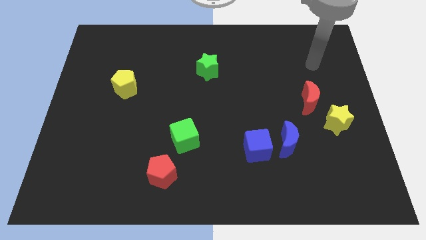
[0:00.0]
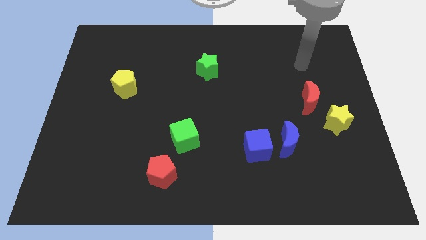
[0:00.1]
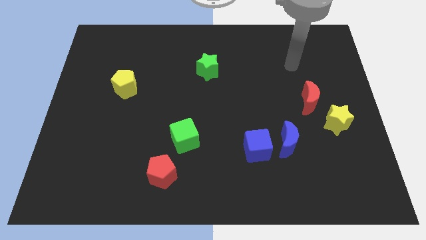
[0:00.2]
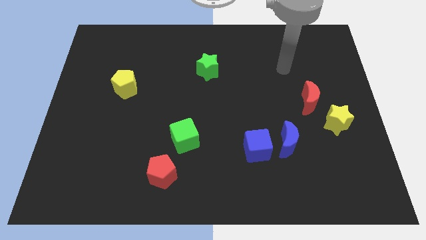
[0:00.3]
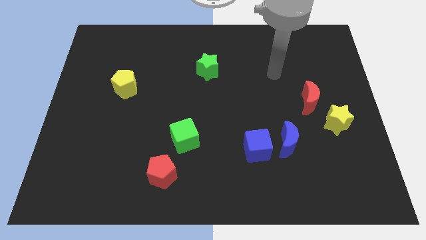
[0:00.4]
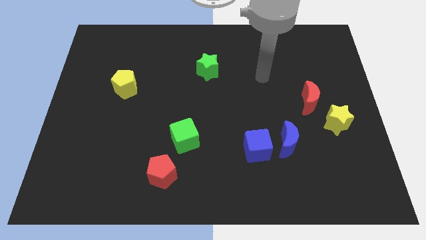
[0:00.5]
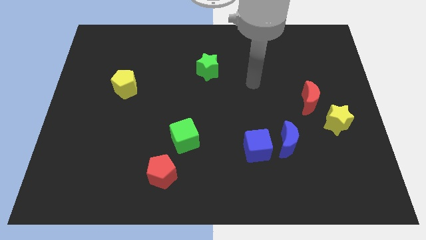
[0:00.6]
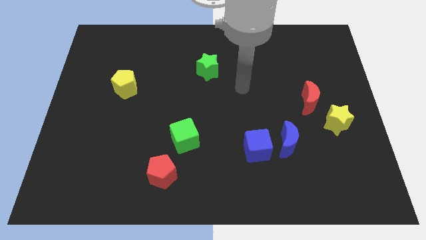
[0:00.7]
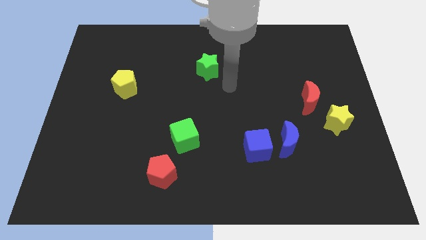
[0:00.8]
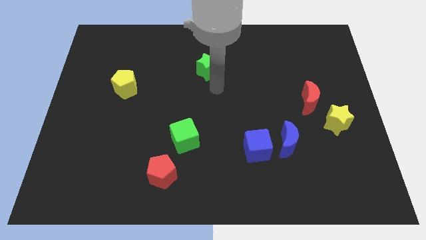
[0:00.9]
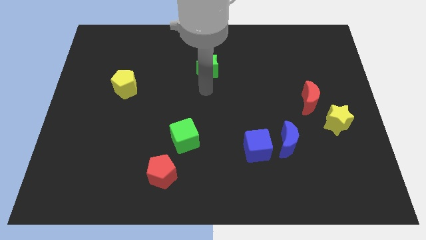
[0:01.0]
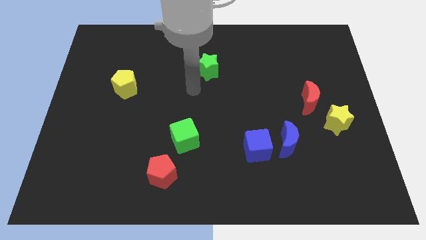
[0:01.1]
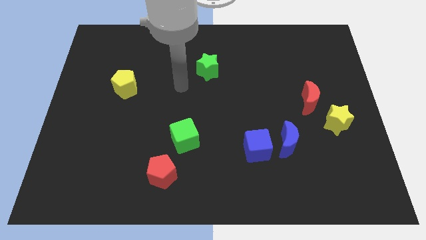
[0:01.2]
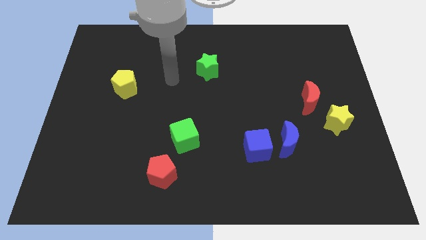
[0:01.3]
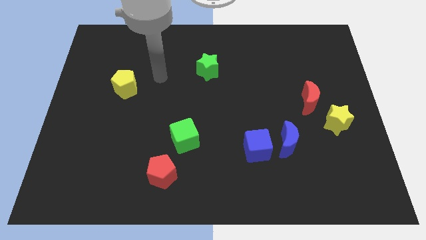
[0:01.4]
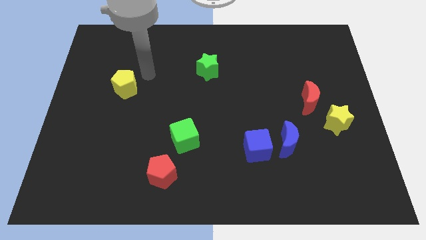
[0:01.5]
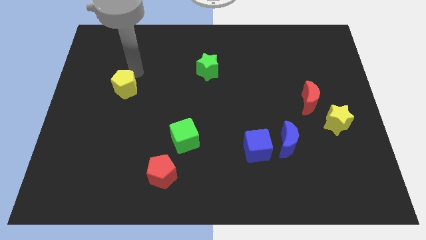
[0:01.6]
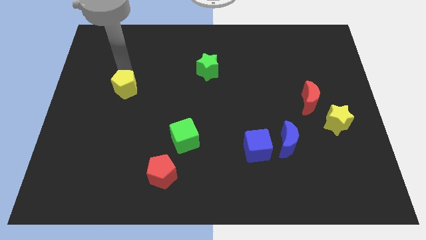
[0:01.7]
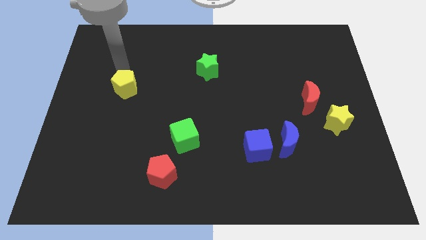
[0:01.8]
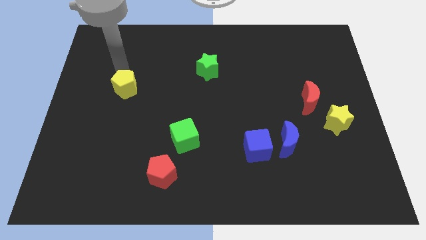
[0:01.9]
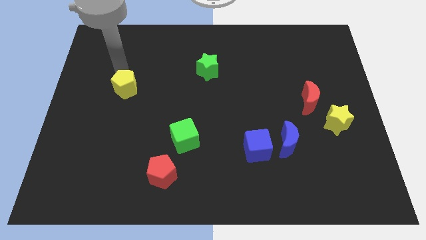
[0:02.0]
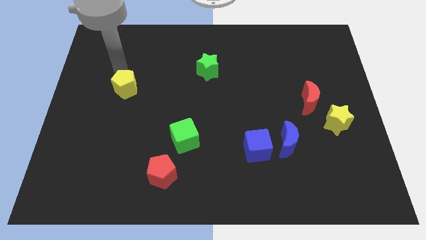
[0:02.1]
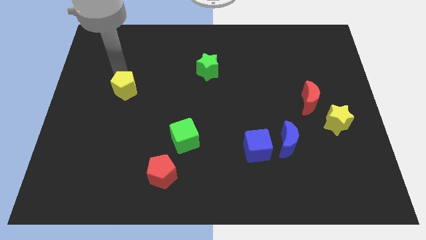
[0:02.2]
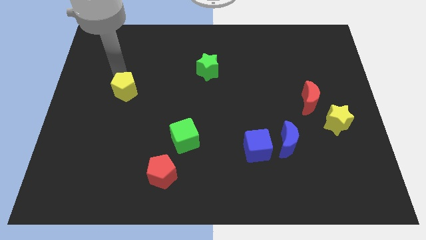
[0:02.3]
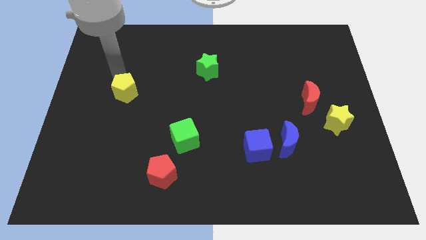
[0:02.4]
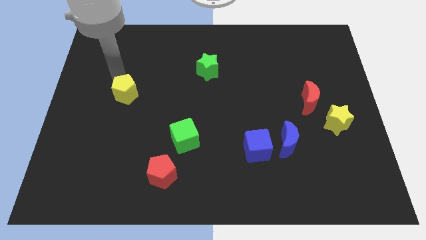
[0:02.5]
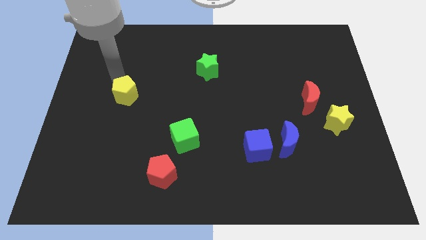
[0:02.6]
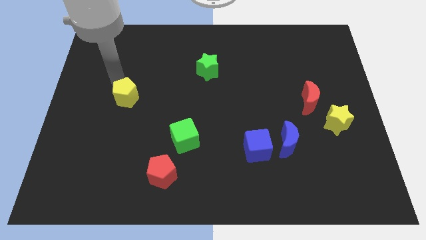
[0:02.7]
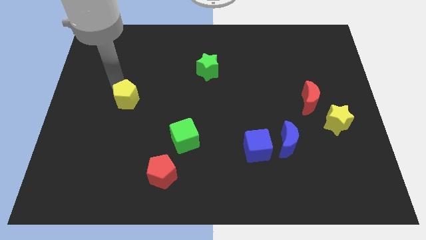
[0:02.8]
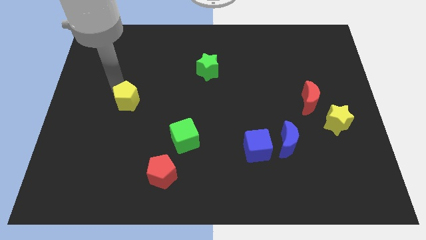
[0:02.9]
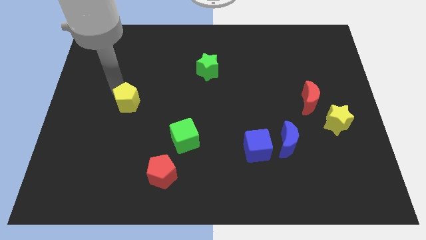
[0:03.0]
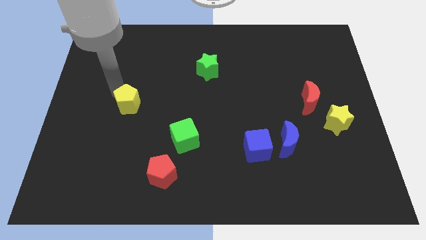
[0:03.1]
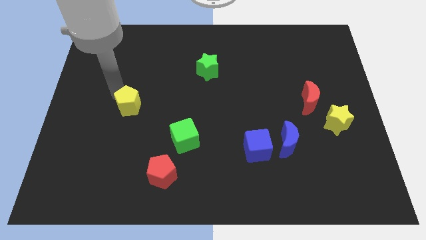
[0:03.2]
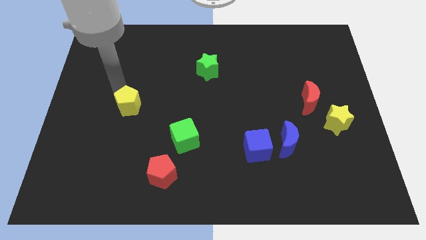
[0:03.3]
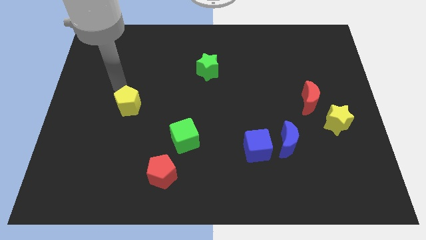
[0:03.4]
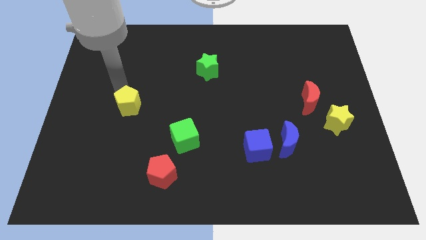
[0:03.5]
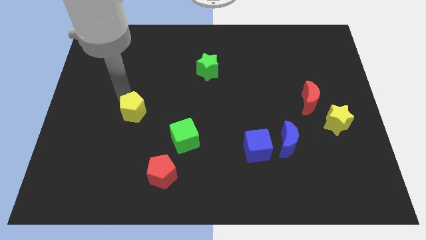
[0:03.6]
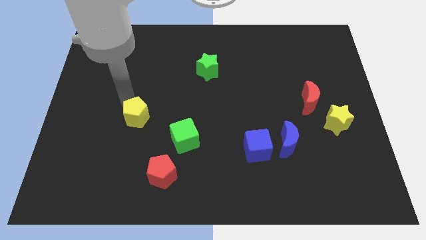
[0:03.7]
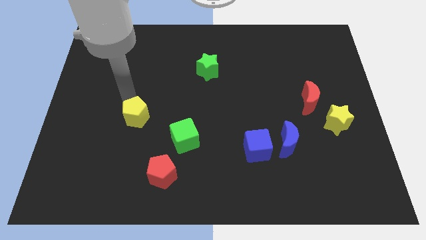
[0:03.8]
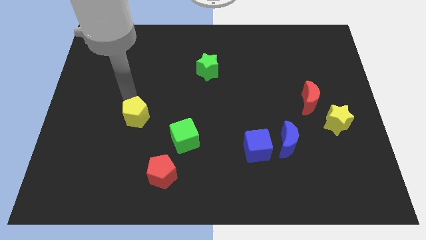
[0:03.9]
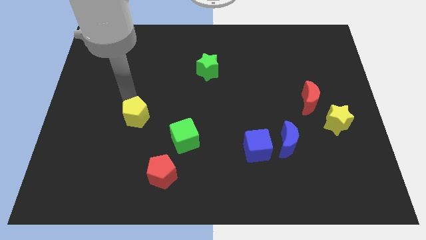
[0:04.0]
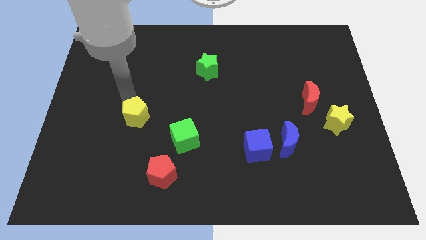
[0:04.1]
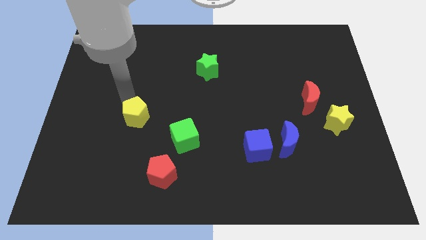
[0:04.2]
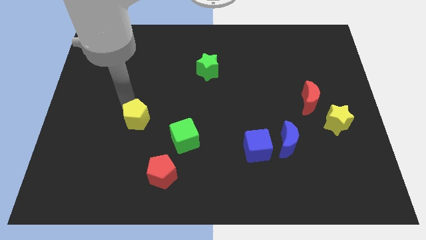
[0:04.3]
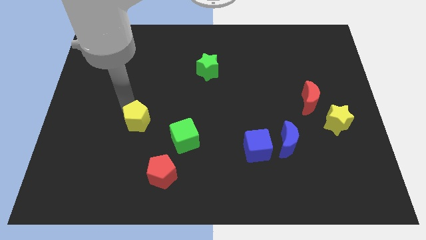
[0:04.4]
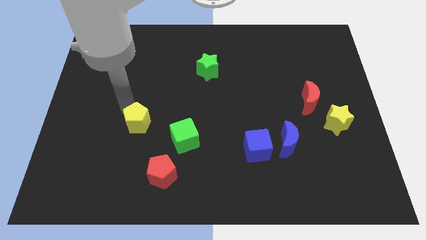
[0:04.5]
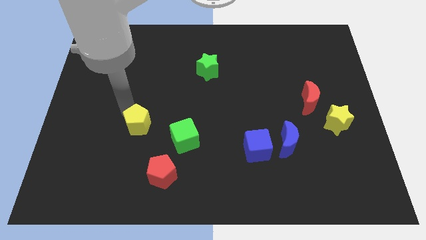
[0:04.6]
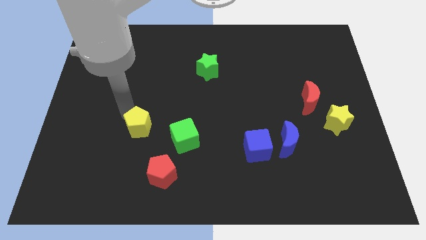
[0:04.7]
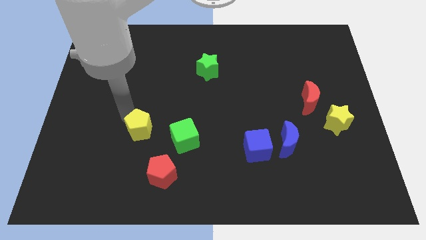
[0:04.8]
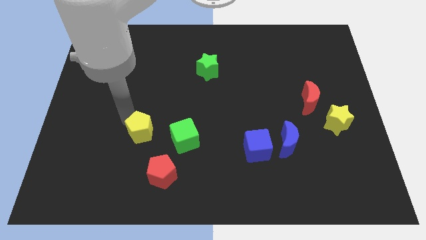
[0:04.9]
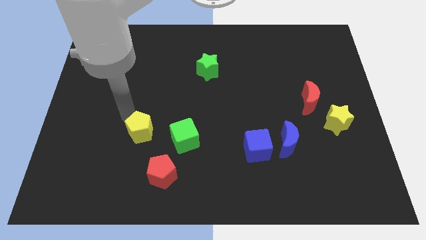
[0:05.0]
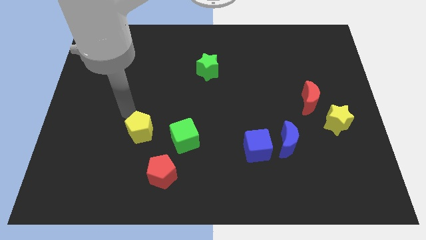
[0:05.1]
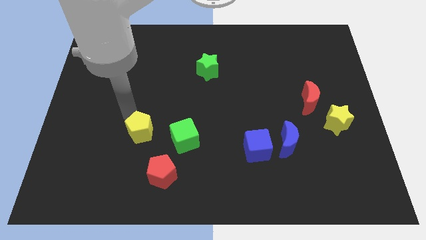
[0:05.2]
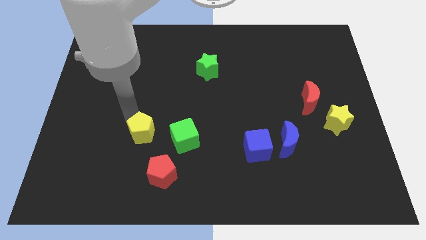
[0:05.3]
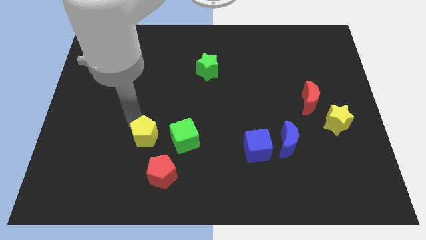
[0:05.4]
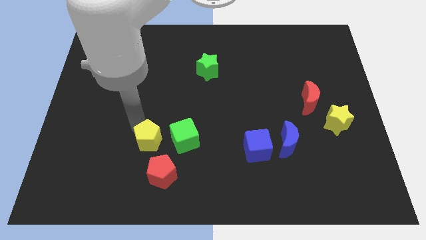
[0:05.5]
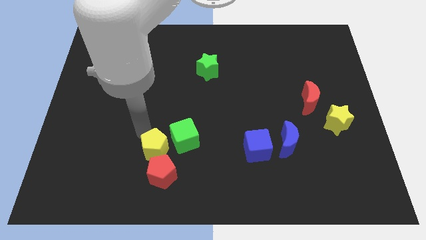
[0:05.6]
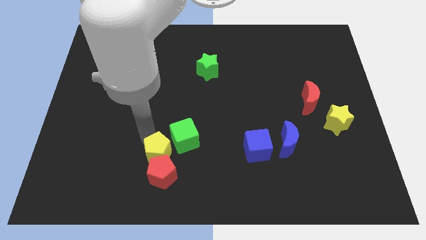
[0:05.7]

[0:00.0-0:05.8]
slide the yellow pentagon close to the red pentagon

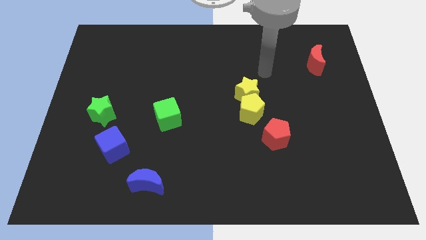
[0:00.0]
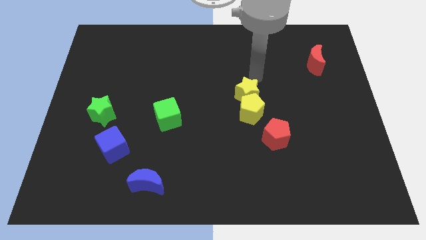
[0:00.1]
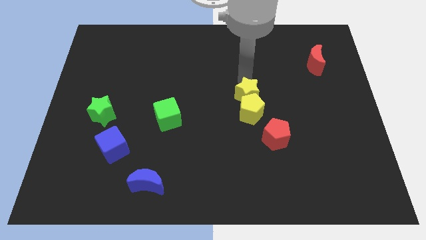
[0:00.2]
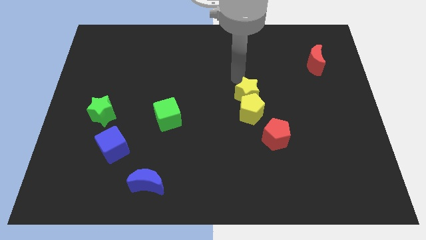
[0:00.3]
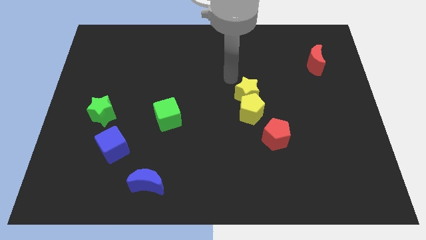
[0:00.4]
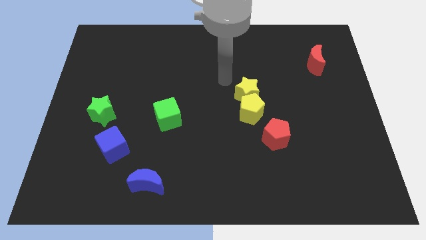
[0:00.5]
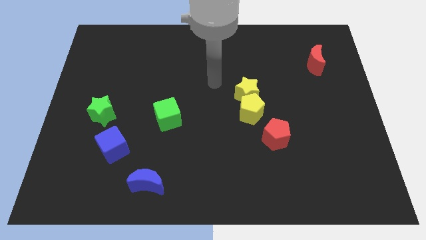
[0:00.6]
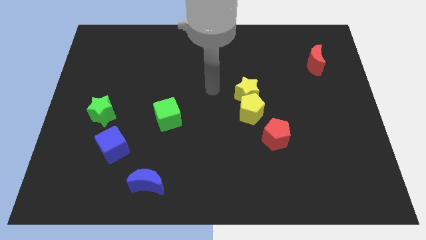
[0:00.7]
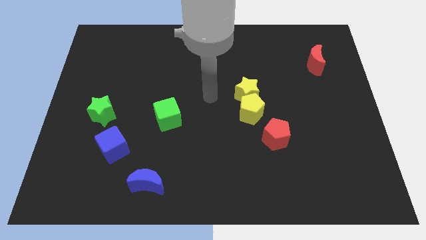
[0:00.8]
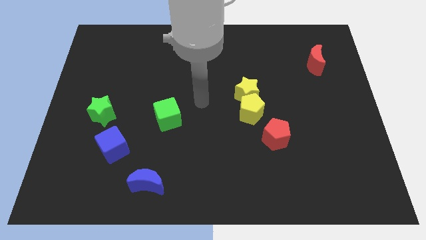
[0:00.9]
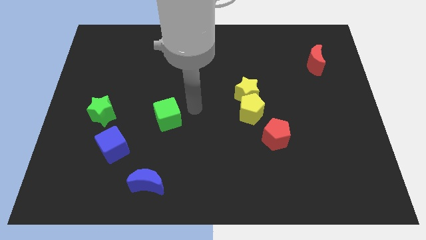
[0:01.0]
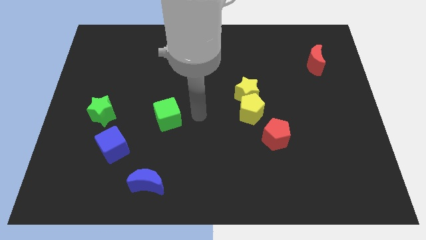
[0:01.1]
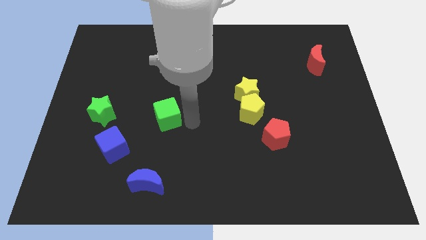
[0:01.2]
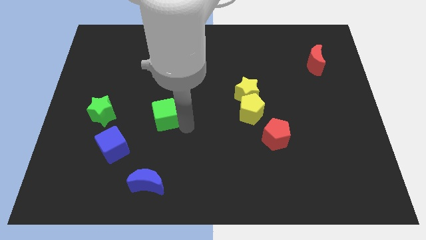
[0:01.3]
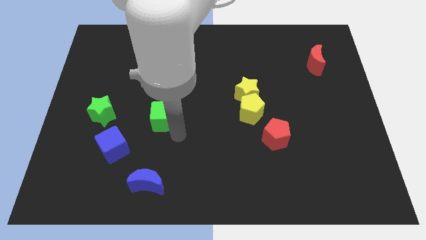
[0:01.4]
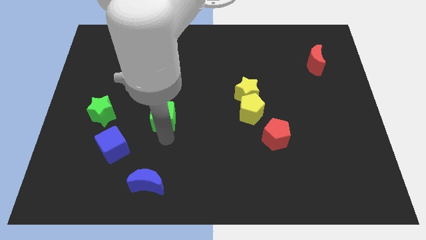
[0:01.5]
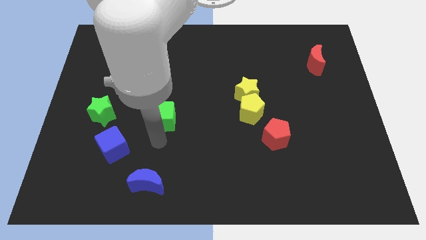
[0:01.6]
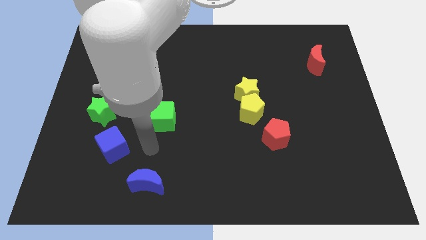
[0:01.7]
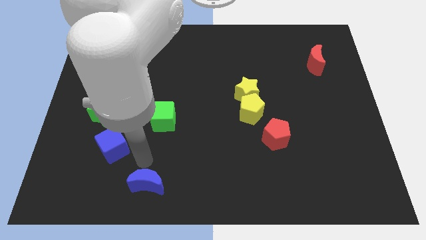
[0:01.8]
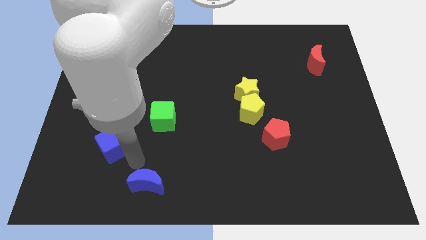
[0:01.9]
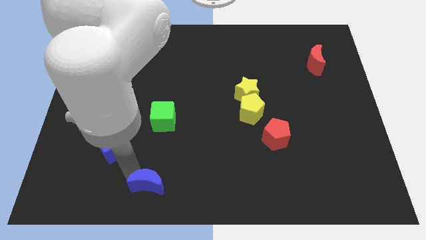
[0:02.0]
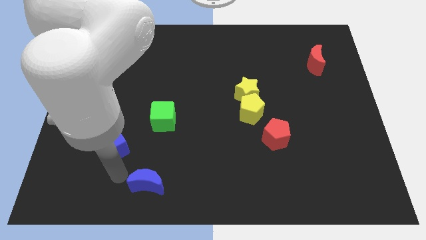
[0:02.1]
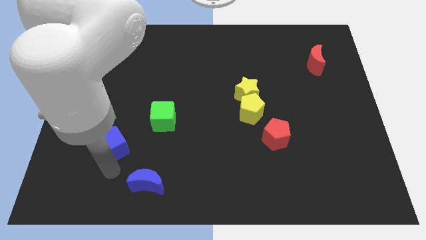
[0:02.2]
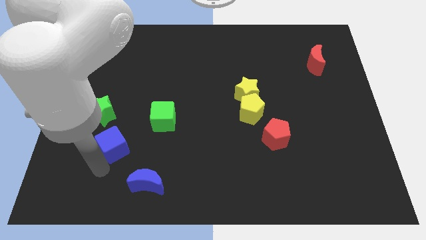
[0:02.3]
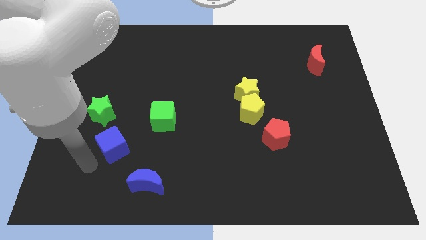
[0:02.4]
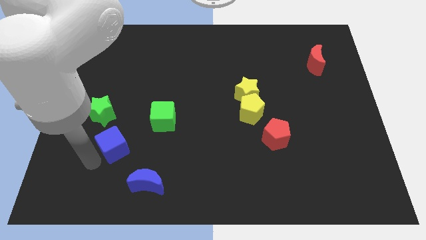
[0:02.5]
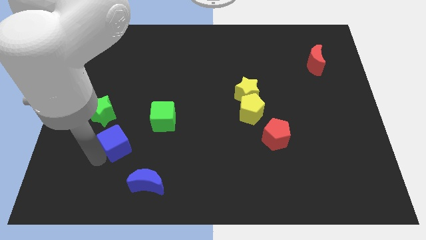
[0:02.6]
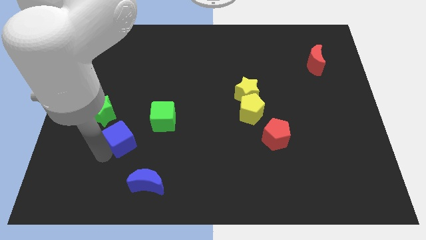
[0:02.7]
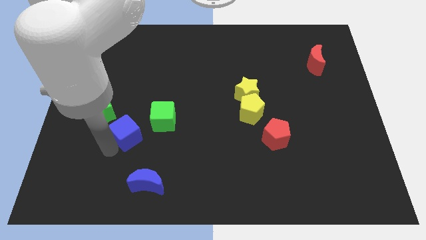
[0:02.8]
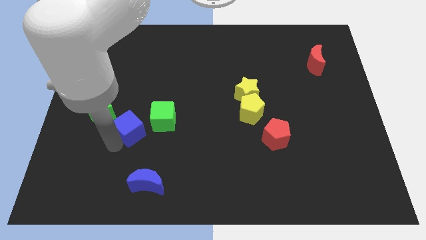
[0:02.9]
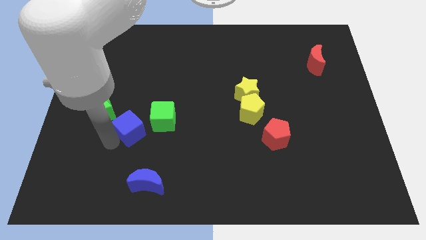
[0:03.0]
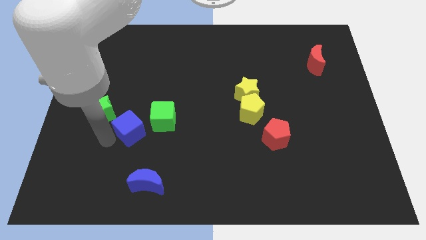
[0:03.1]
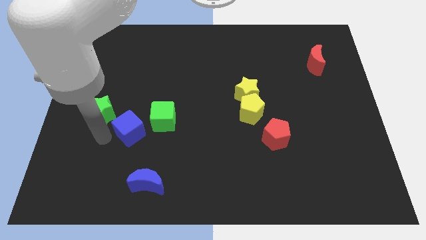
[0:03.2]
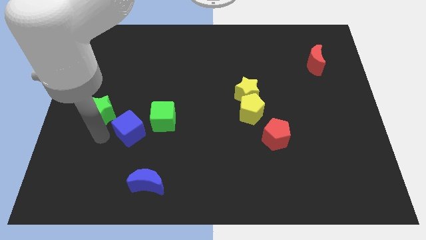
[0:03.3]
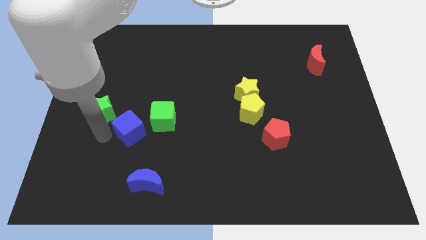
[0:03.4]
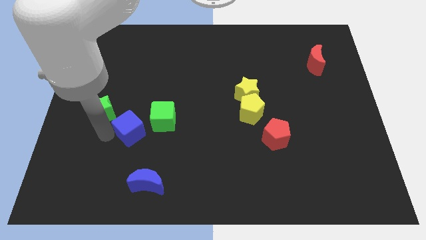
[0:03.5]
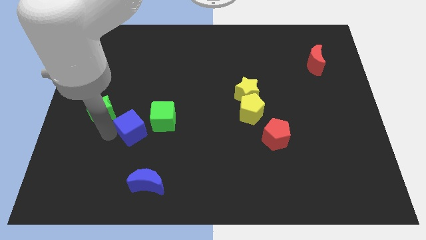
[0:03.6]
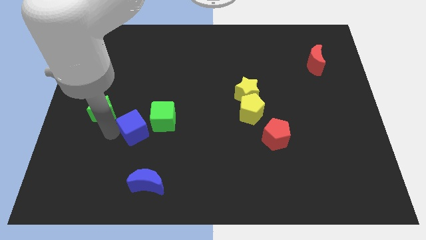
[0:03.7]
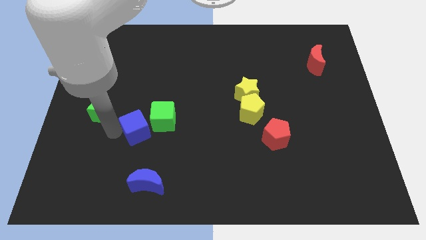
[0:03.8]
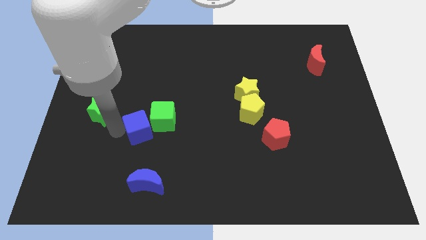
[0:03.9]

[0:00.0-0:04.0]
put the blue cube towards the green cube
